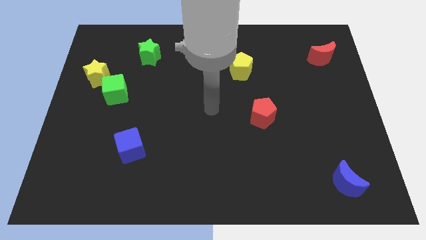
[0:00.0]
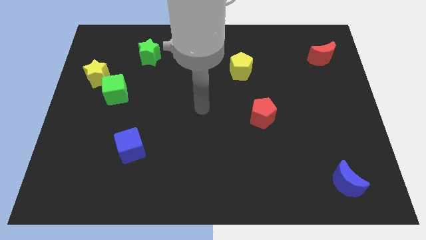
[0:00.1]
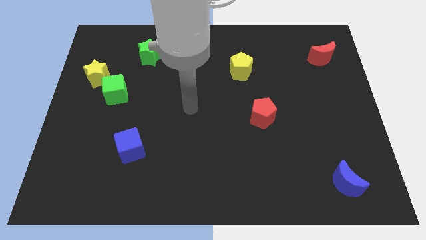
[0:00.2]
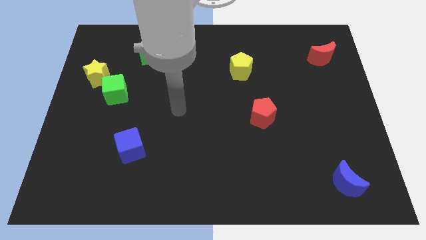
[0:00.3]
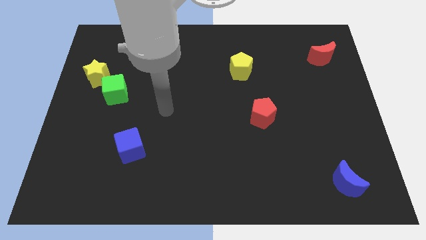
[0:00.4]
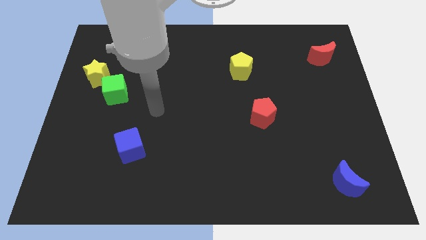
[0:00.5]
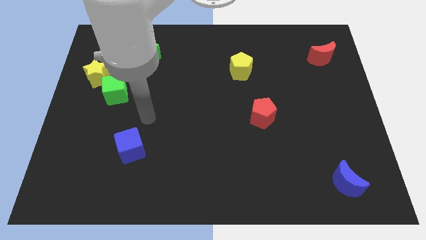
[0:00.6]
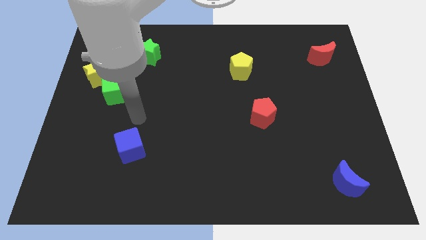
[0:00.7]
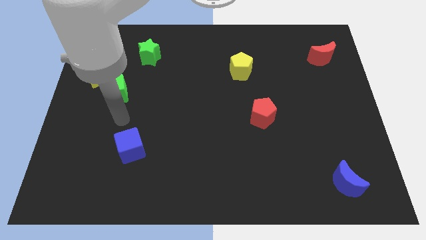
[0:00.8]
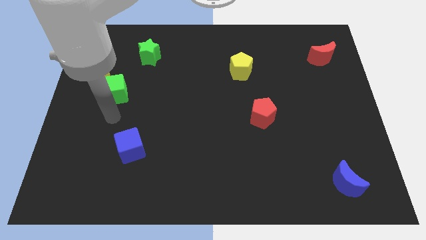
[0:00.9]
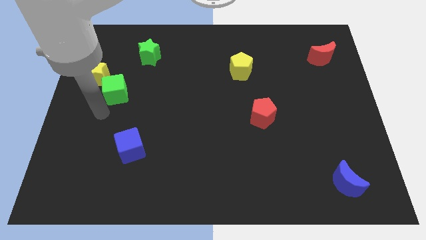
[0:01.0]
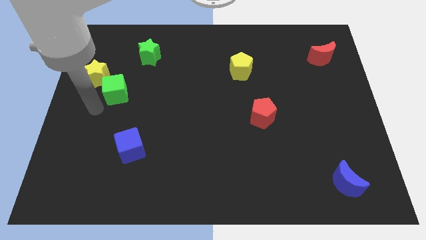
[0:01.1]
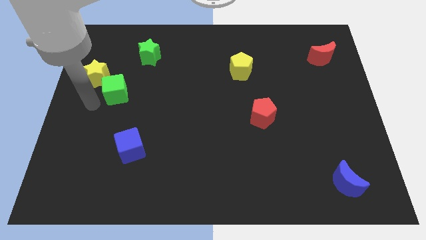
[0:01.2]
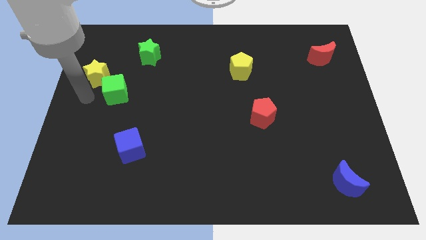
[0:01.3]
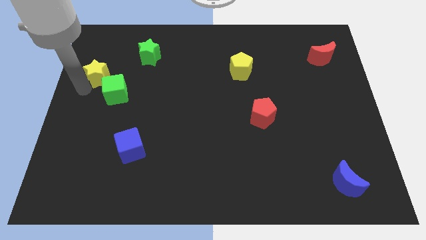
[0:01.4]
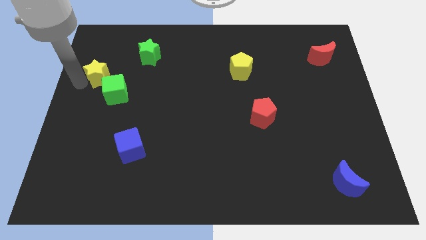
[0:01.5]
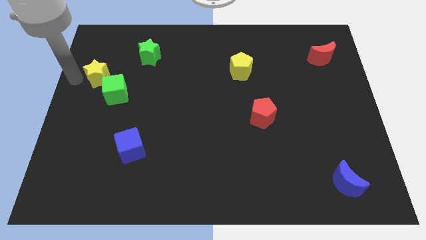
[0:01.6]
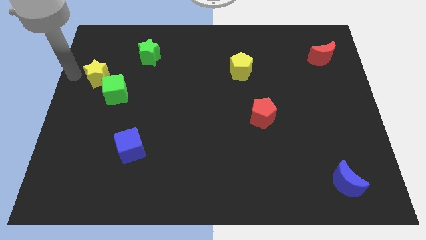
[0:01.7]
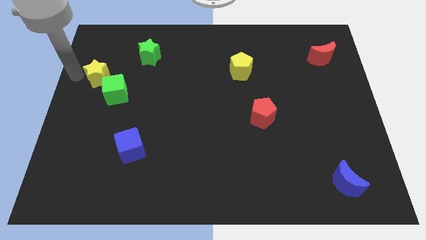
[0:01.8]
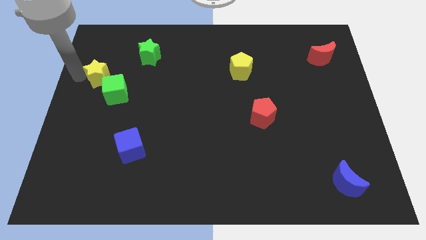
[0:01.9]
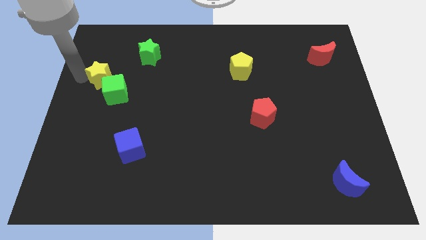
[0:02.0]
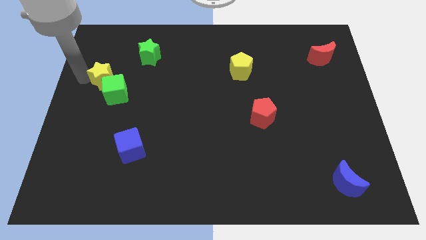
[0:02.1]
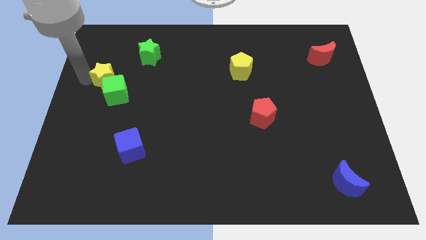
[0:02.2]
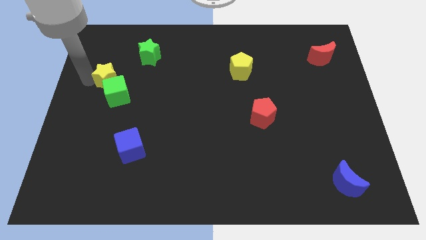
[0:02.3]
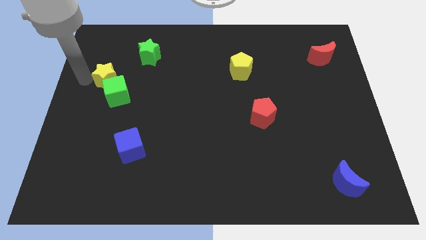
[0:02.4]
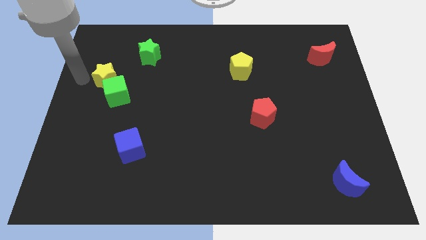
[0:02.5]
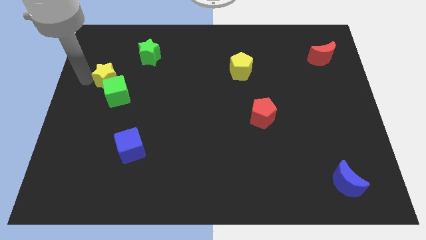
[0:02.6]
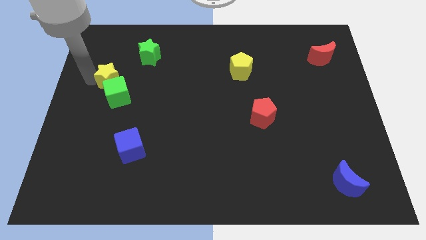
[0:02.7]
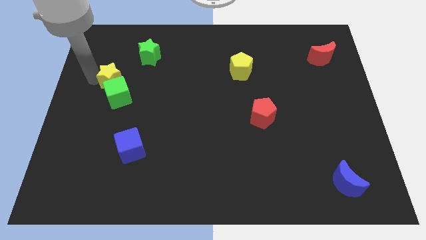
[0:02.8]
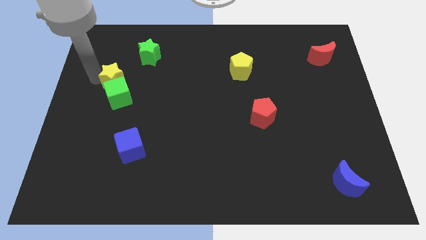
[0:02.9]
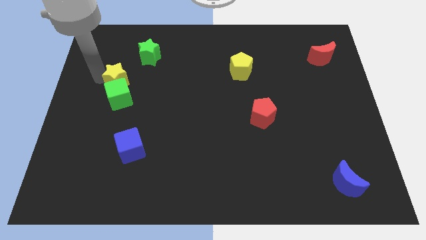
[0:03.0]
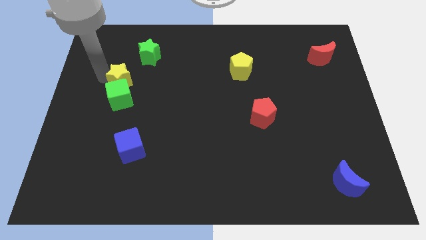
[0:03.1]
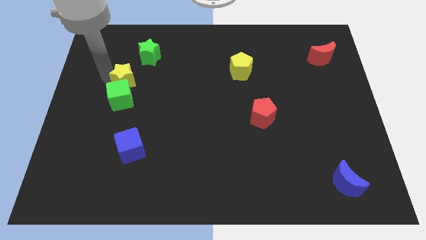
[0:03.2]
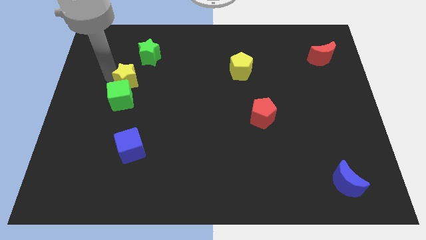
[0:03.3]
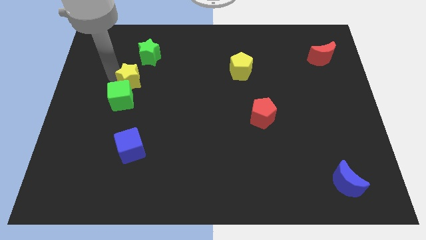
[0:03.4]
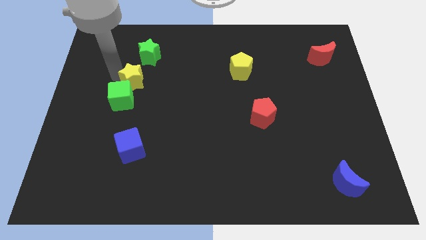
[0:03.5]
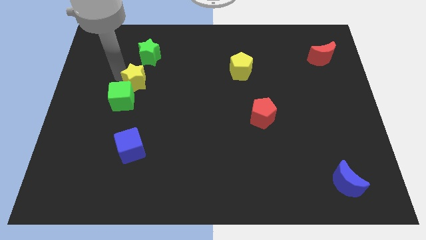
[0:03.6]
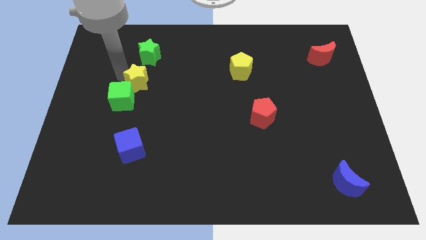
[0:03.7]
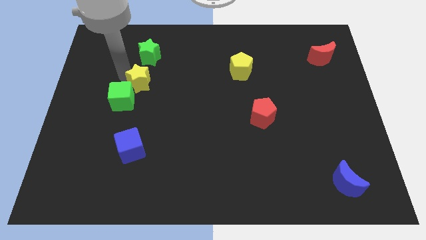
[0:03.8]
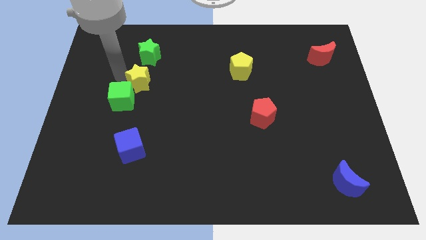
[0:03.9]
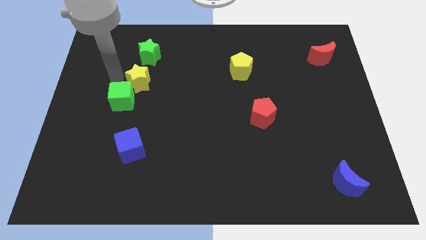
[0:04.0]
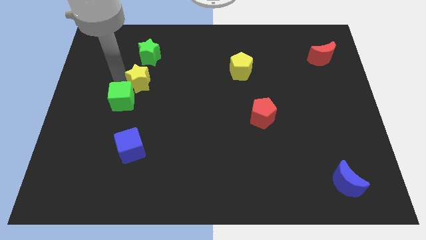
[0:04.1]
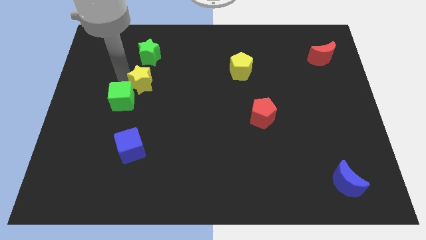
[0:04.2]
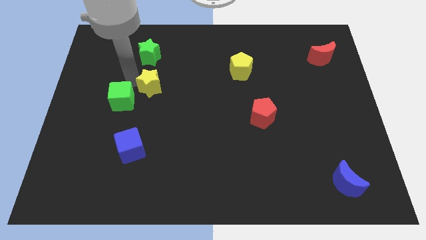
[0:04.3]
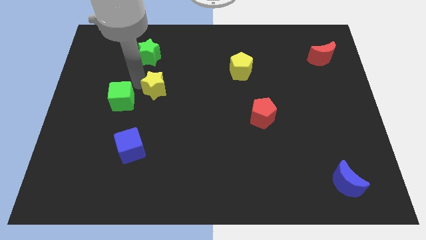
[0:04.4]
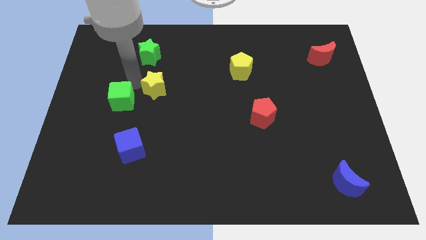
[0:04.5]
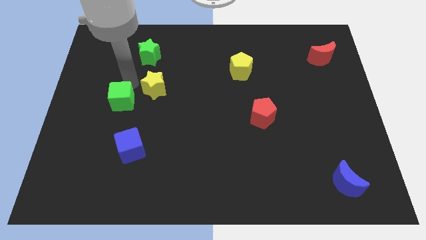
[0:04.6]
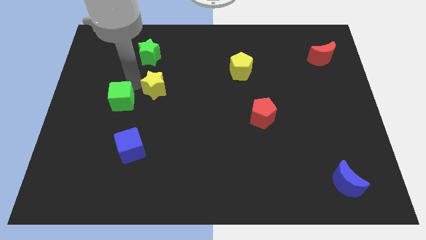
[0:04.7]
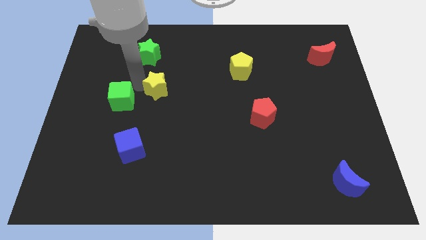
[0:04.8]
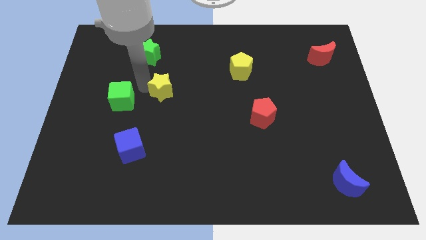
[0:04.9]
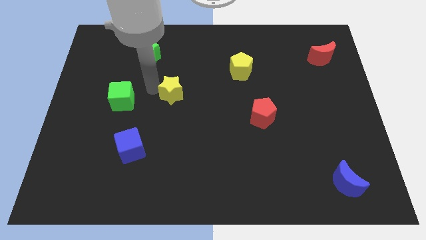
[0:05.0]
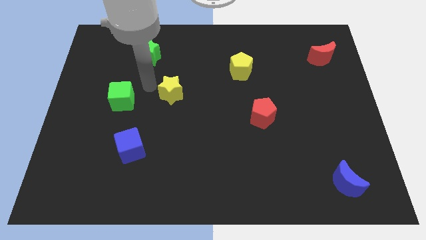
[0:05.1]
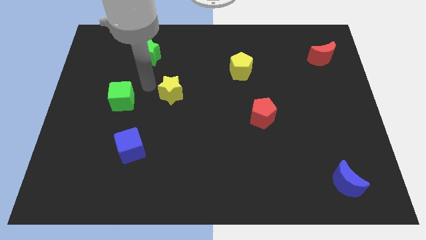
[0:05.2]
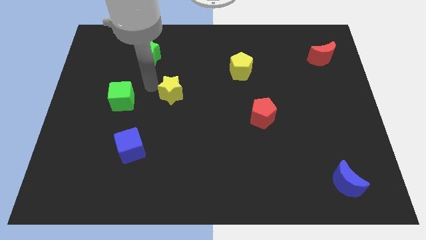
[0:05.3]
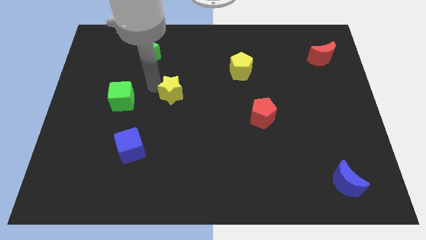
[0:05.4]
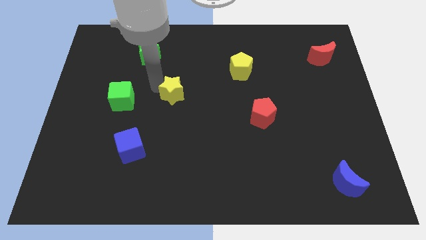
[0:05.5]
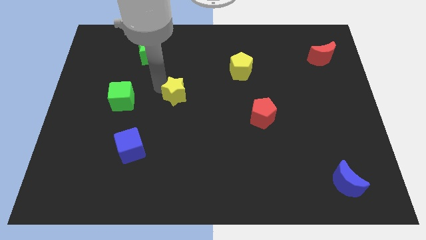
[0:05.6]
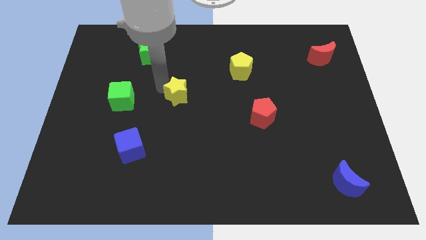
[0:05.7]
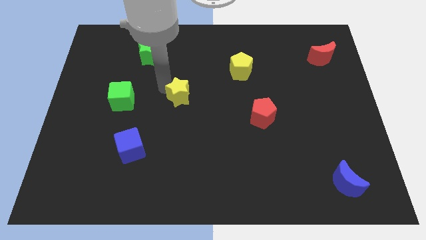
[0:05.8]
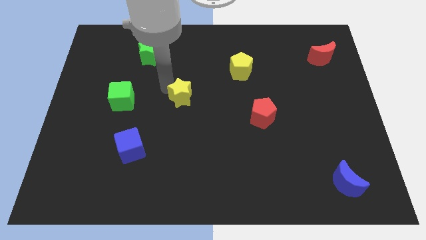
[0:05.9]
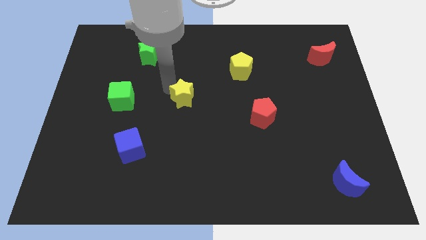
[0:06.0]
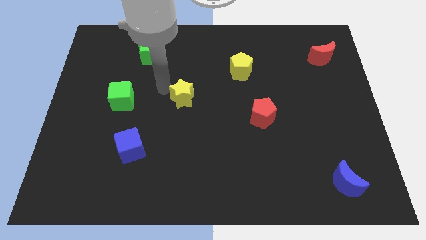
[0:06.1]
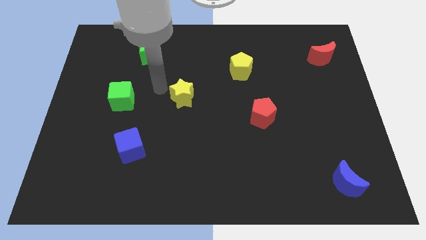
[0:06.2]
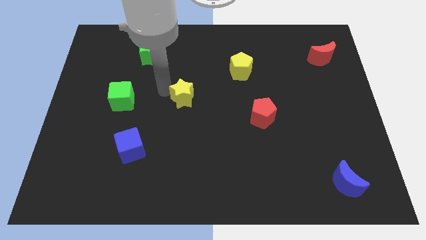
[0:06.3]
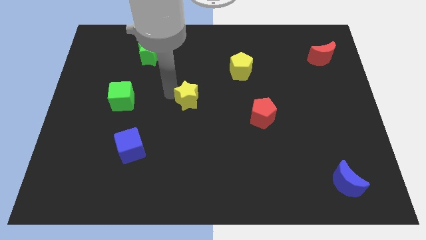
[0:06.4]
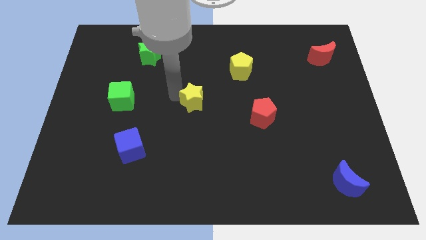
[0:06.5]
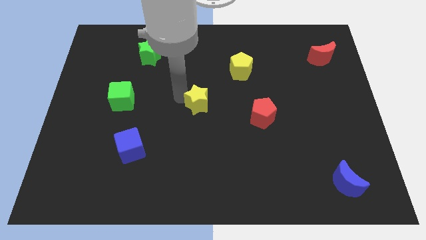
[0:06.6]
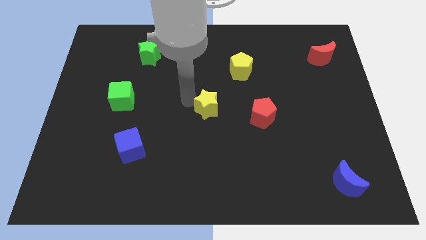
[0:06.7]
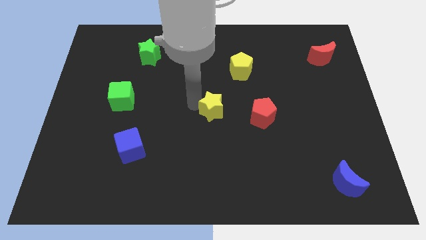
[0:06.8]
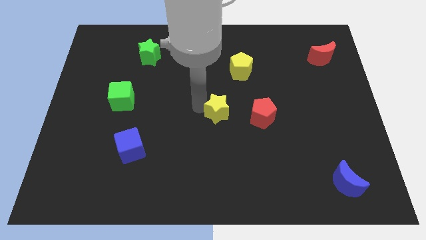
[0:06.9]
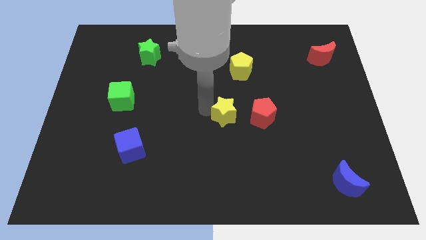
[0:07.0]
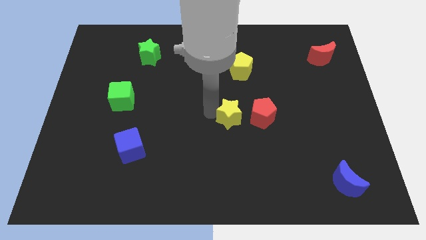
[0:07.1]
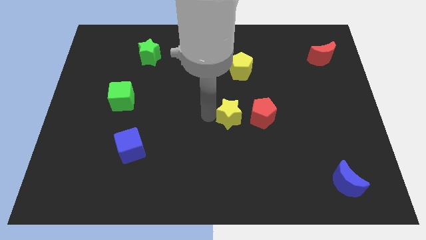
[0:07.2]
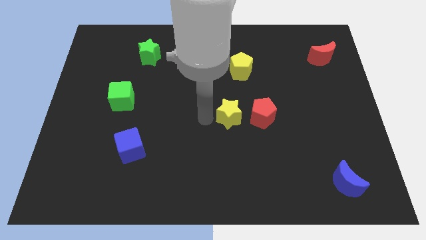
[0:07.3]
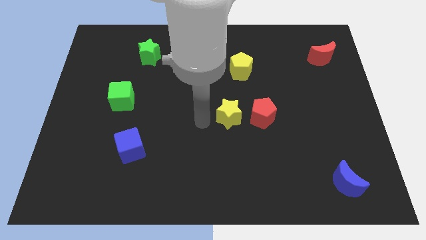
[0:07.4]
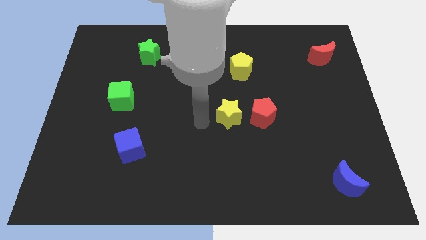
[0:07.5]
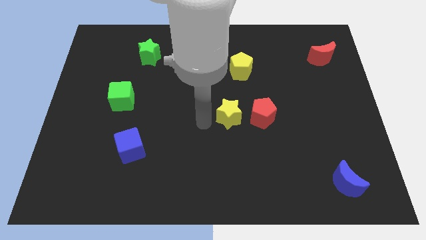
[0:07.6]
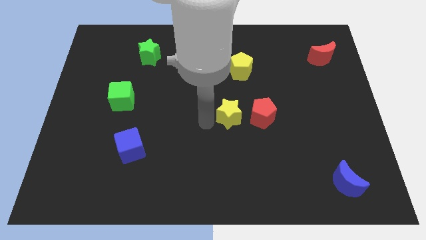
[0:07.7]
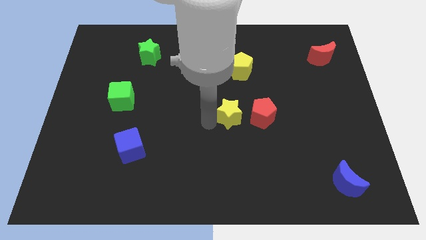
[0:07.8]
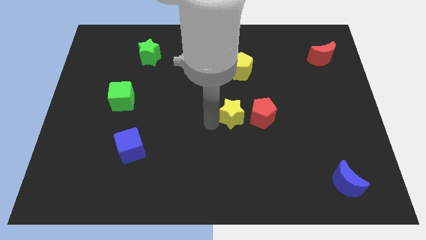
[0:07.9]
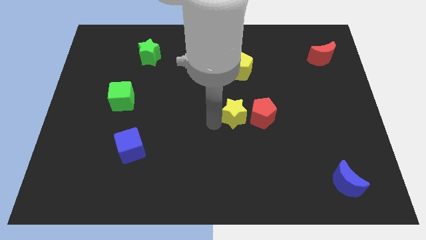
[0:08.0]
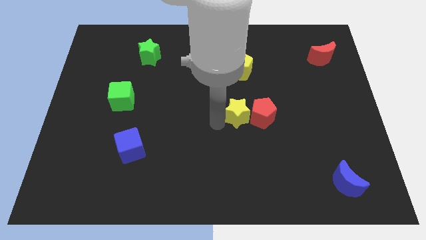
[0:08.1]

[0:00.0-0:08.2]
move the yellow star to the red pentagon
